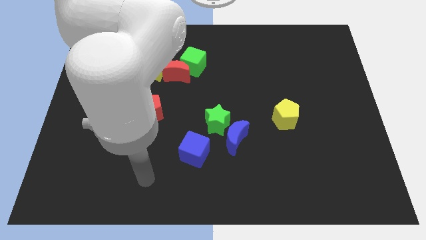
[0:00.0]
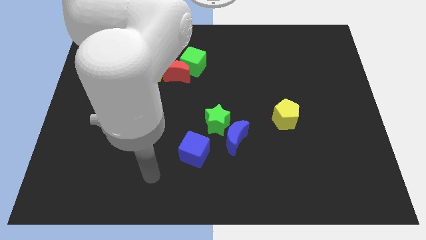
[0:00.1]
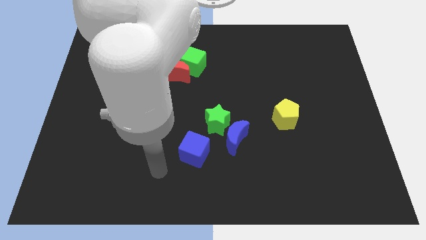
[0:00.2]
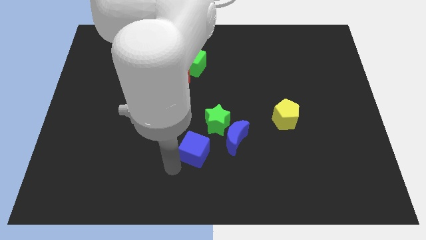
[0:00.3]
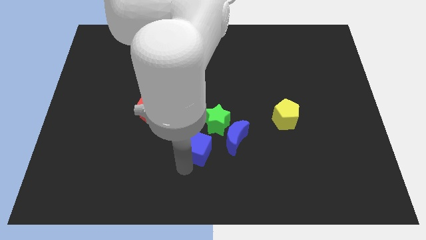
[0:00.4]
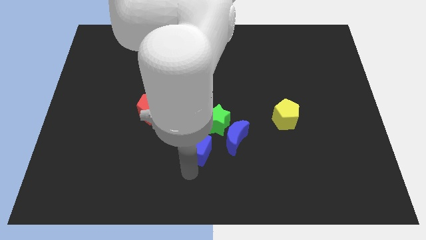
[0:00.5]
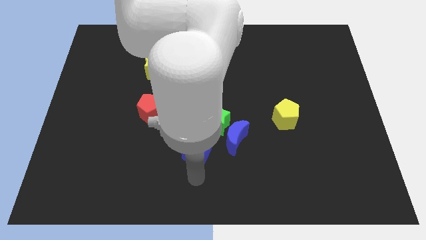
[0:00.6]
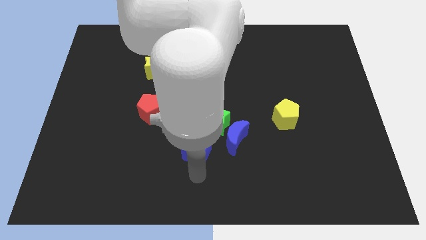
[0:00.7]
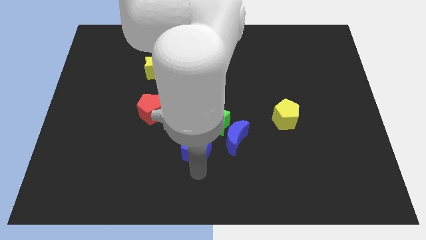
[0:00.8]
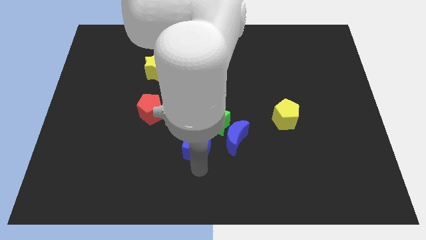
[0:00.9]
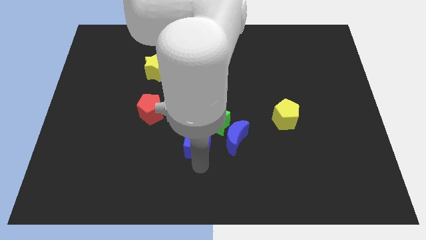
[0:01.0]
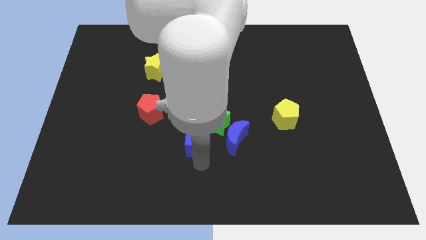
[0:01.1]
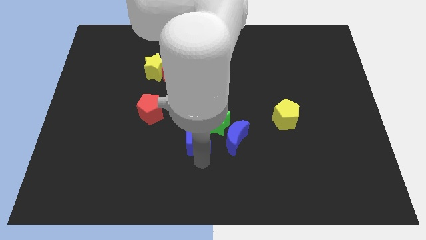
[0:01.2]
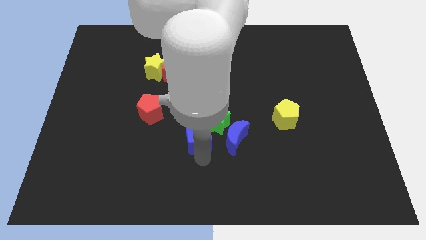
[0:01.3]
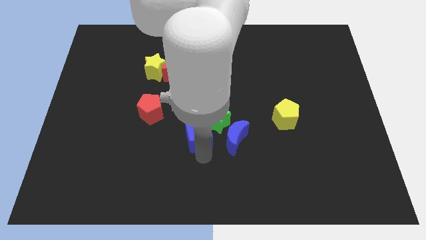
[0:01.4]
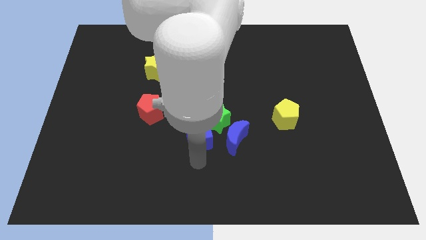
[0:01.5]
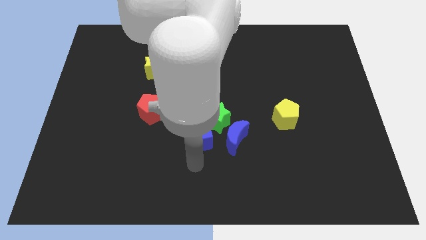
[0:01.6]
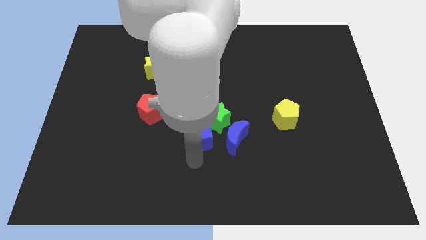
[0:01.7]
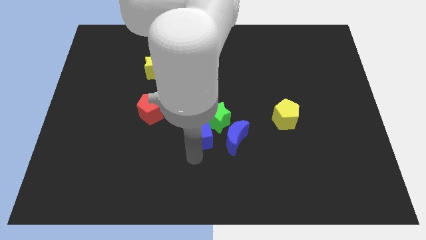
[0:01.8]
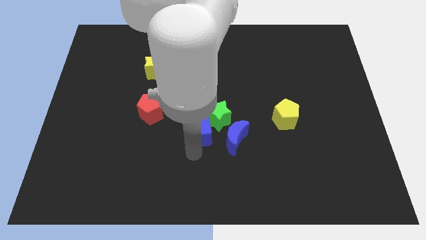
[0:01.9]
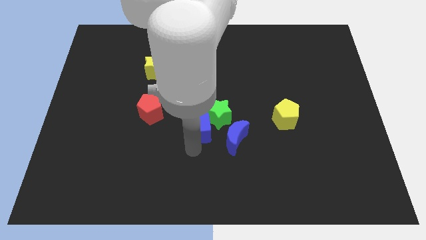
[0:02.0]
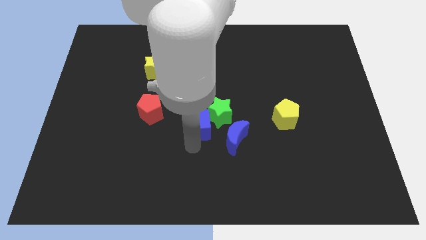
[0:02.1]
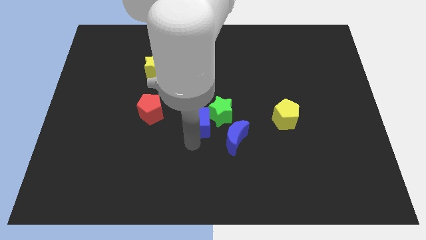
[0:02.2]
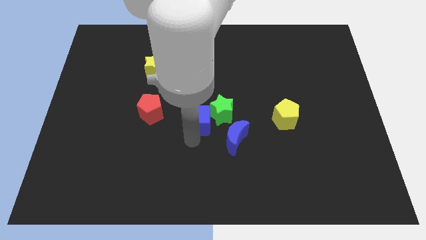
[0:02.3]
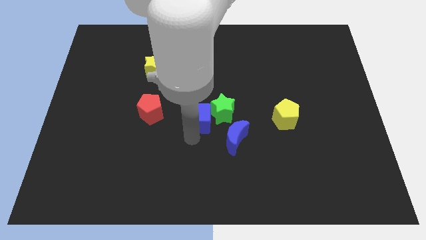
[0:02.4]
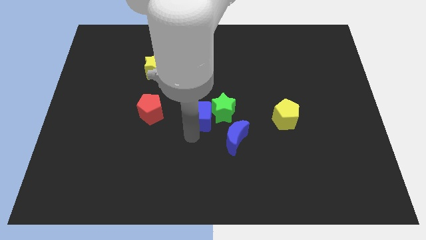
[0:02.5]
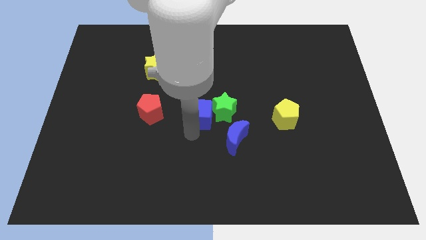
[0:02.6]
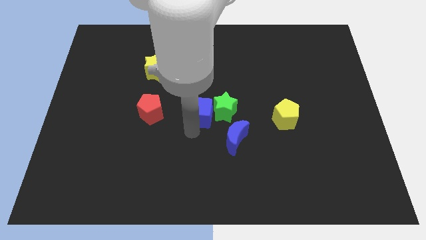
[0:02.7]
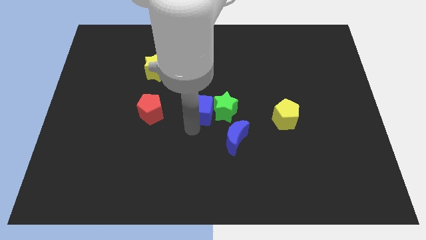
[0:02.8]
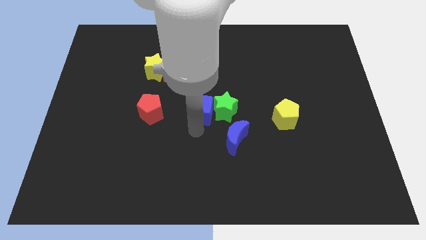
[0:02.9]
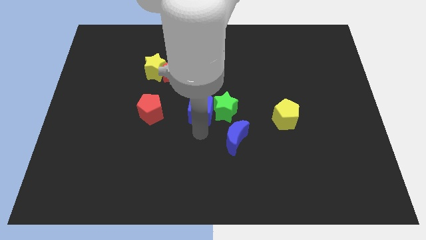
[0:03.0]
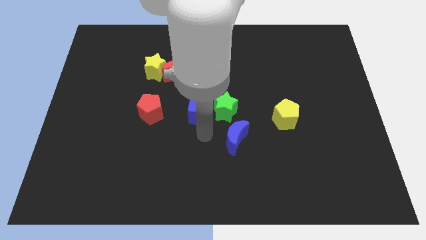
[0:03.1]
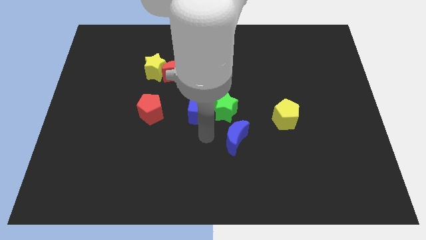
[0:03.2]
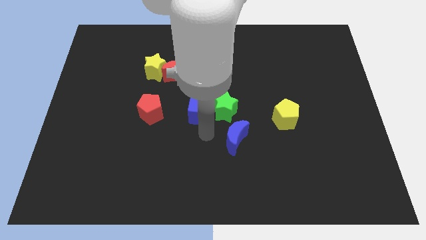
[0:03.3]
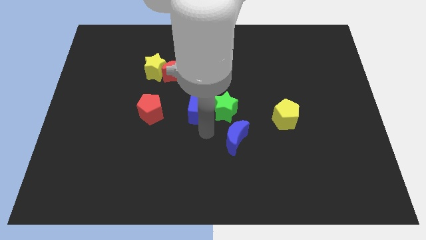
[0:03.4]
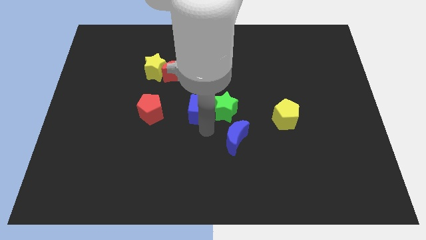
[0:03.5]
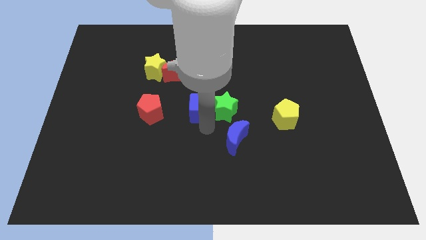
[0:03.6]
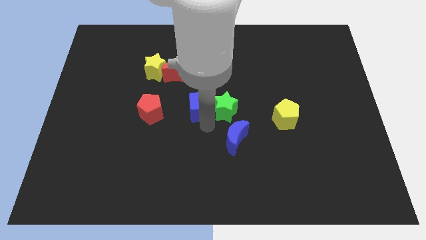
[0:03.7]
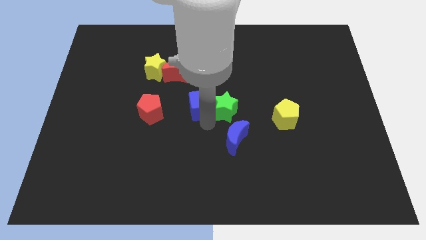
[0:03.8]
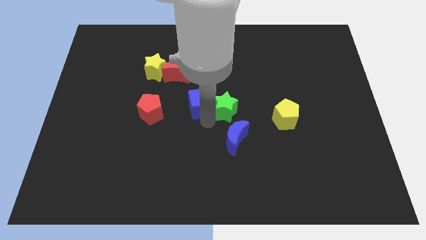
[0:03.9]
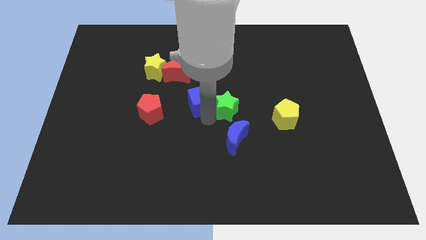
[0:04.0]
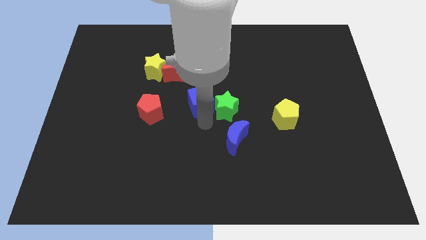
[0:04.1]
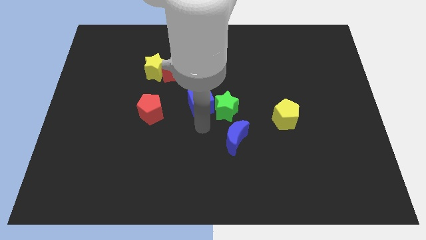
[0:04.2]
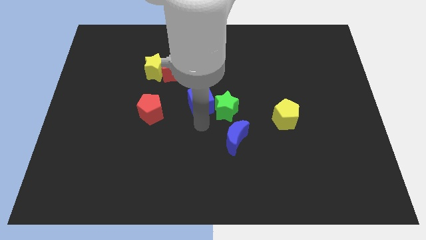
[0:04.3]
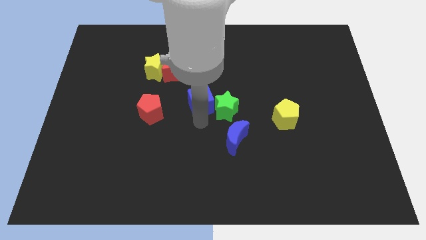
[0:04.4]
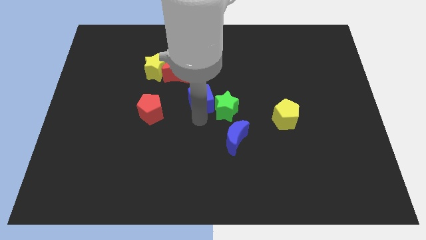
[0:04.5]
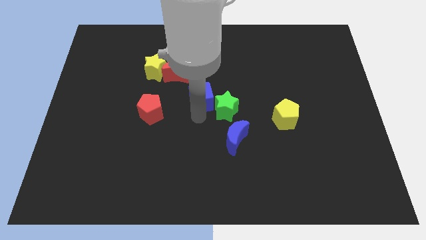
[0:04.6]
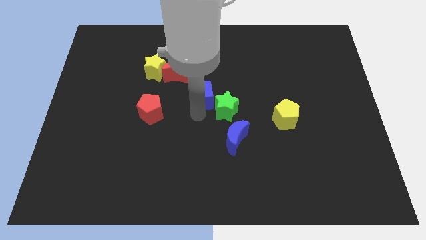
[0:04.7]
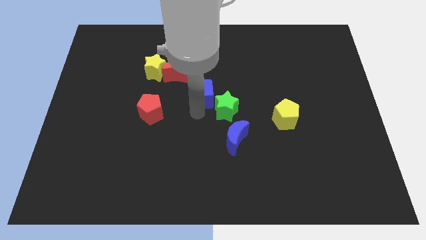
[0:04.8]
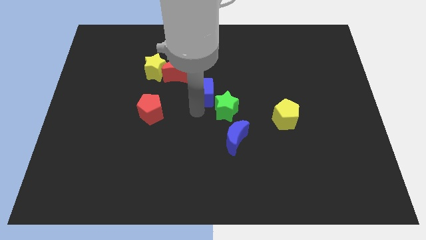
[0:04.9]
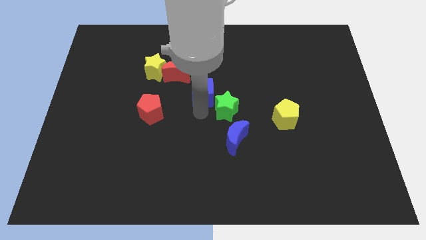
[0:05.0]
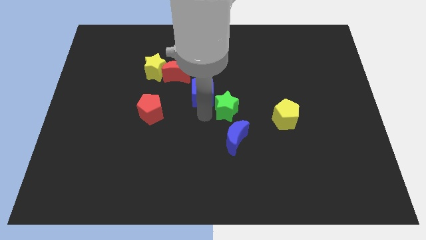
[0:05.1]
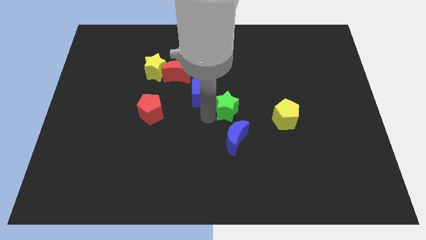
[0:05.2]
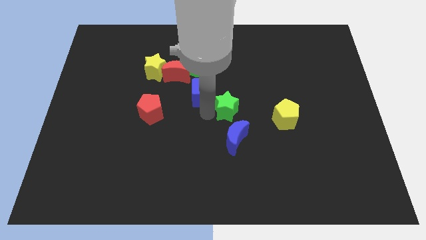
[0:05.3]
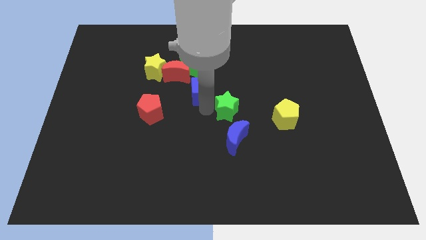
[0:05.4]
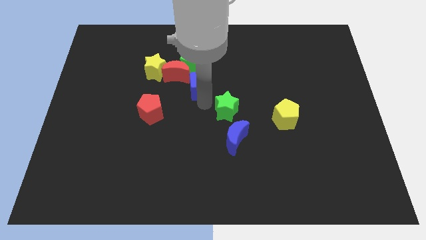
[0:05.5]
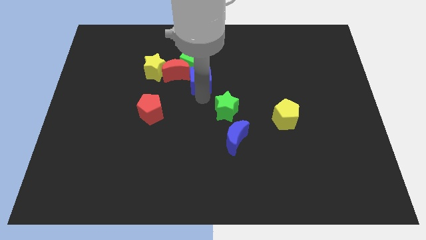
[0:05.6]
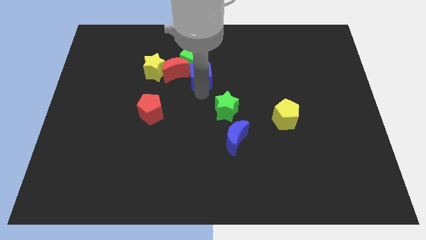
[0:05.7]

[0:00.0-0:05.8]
move the blue cube towards the green cube

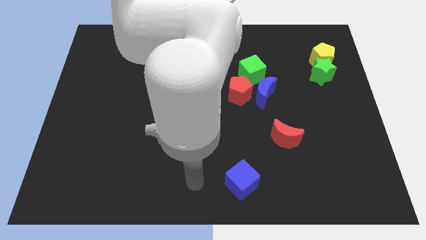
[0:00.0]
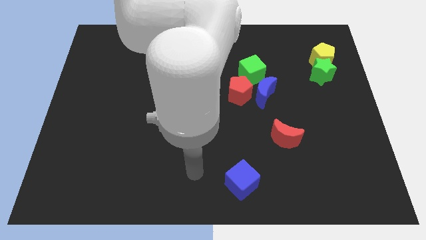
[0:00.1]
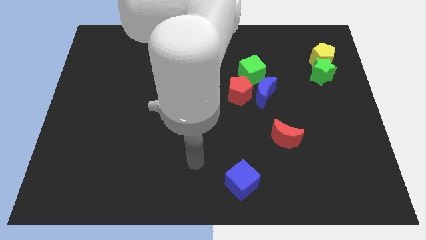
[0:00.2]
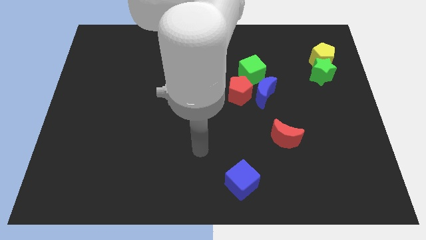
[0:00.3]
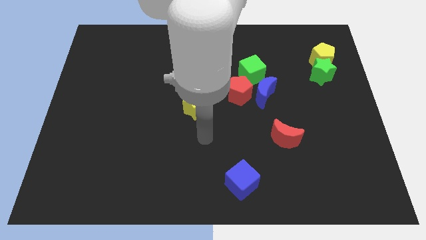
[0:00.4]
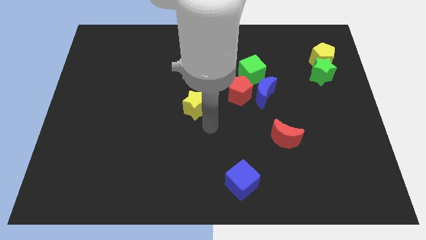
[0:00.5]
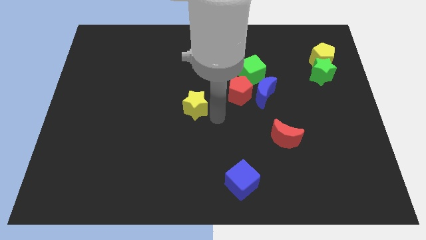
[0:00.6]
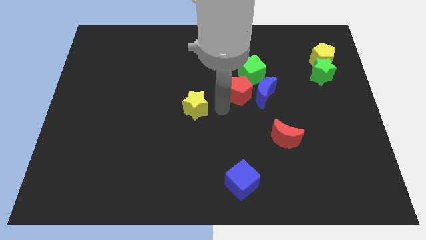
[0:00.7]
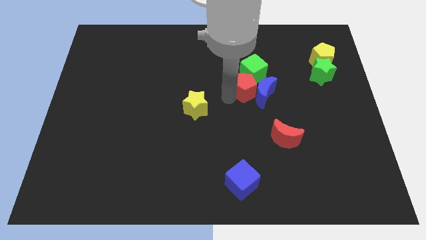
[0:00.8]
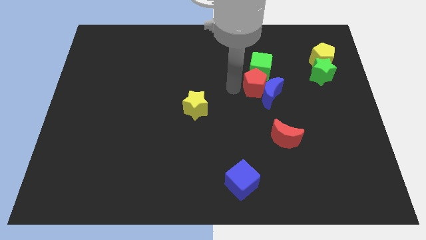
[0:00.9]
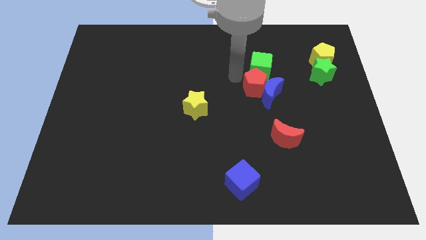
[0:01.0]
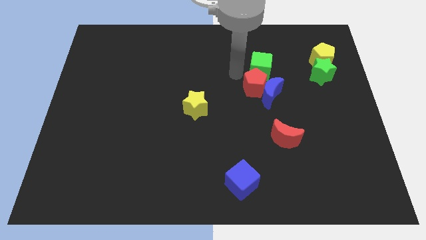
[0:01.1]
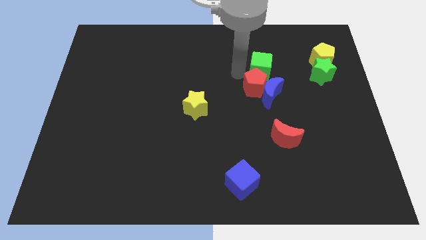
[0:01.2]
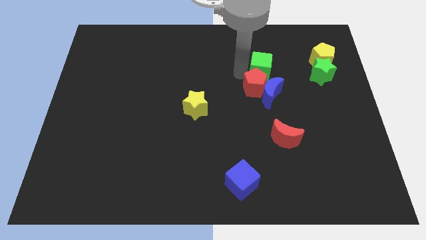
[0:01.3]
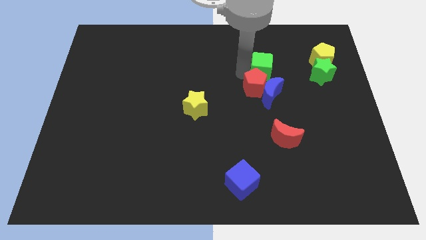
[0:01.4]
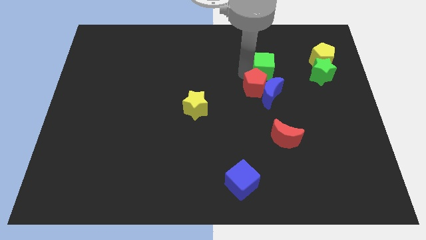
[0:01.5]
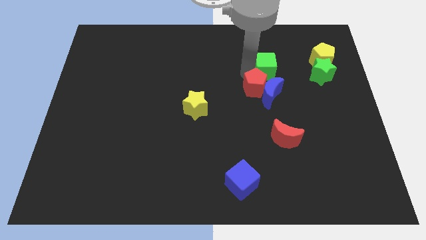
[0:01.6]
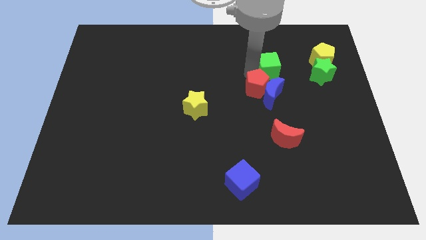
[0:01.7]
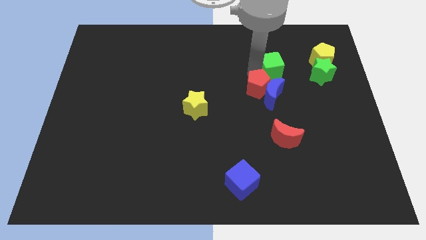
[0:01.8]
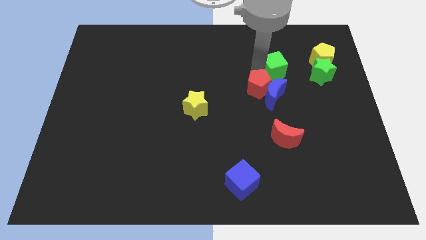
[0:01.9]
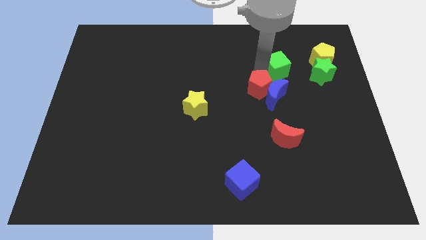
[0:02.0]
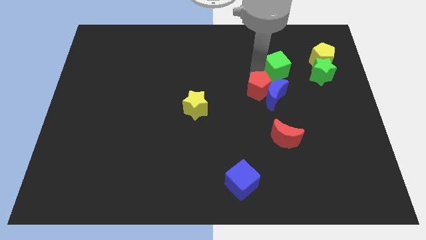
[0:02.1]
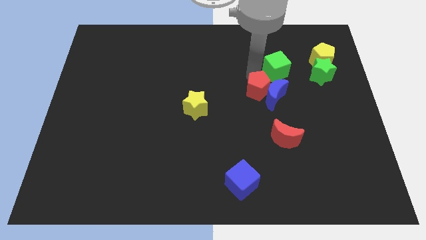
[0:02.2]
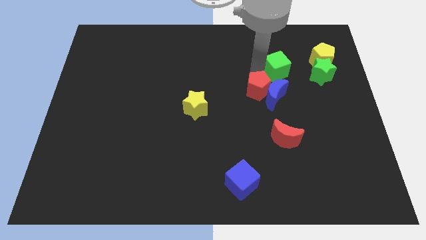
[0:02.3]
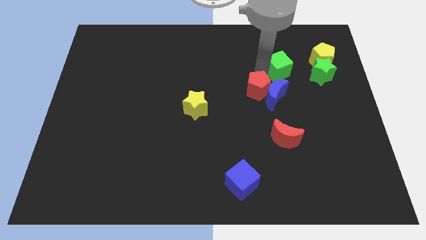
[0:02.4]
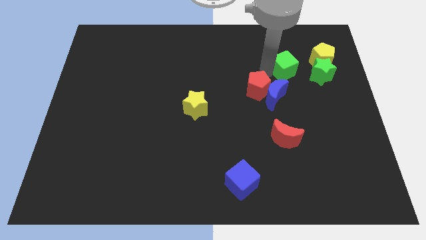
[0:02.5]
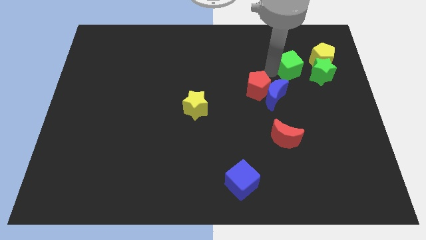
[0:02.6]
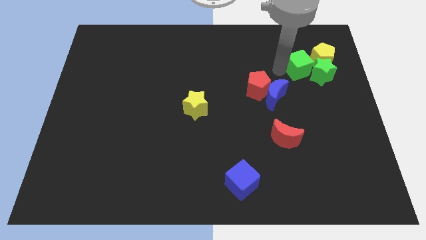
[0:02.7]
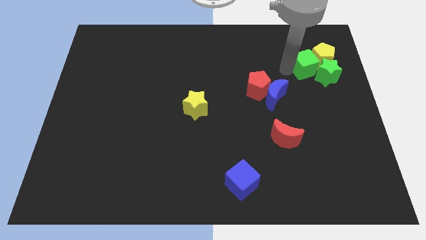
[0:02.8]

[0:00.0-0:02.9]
slide the green cube next to the yellow pentagon
